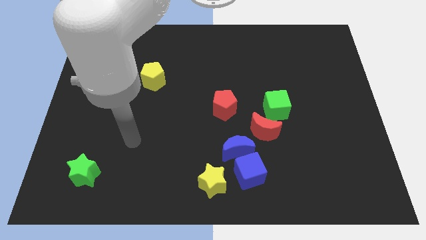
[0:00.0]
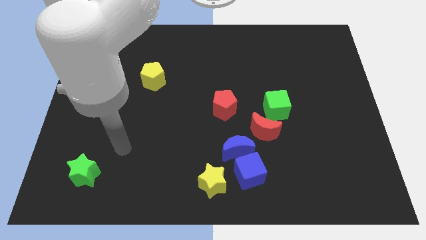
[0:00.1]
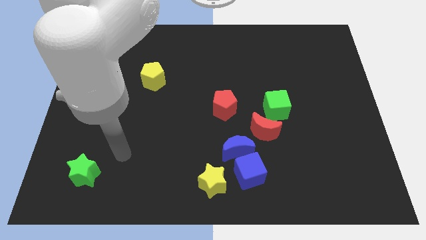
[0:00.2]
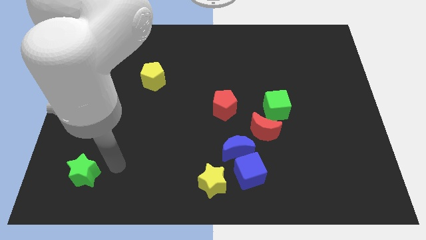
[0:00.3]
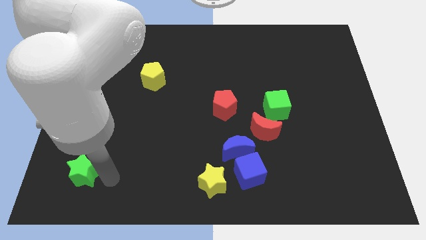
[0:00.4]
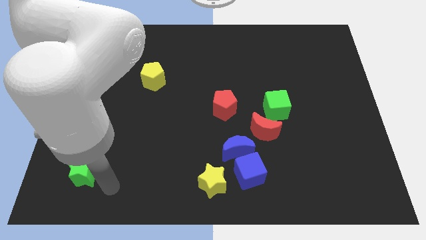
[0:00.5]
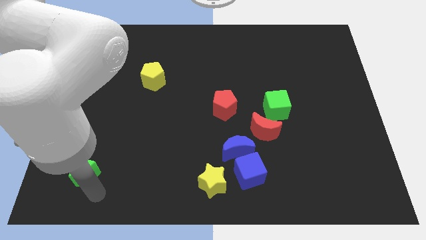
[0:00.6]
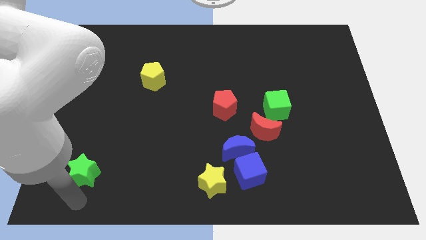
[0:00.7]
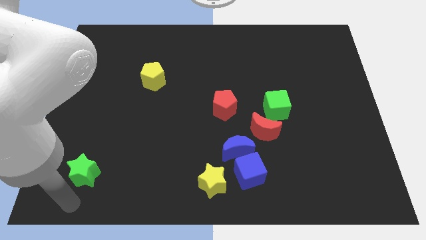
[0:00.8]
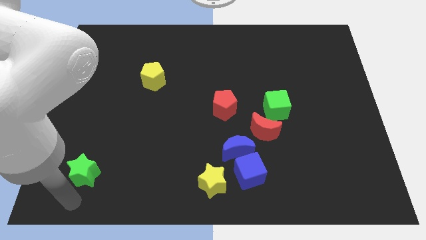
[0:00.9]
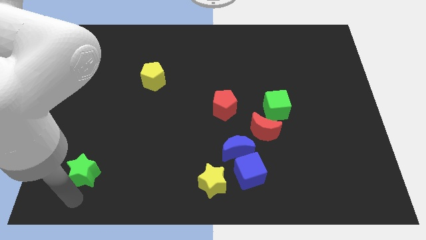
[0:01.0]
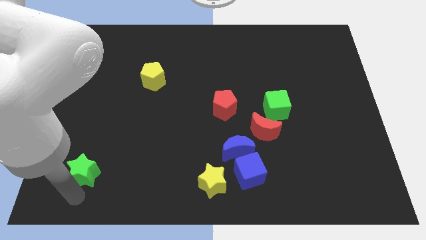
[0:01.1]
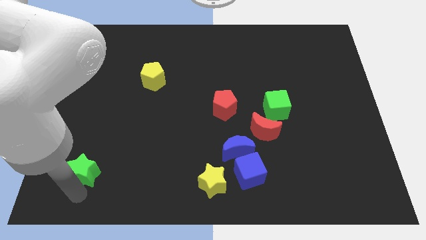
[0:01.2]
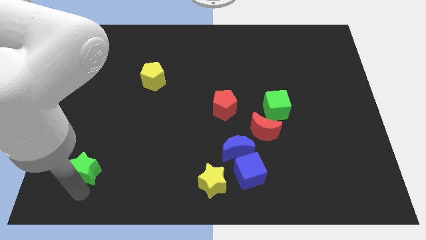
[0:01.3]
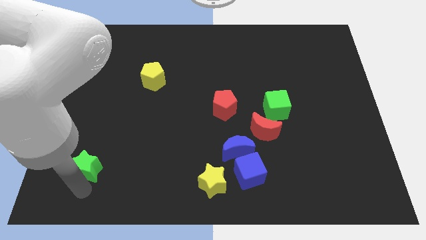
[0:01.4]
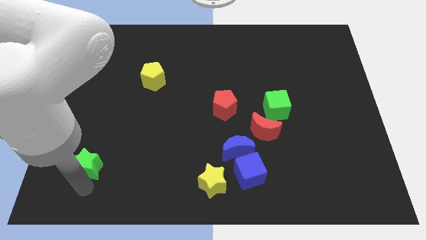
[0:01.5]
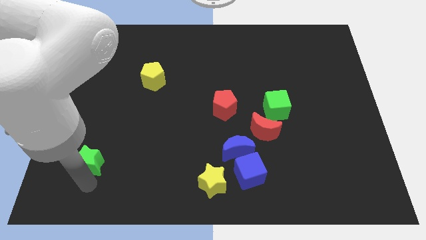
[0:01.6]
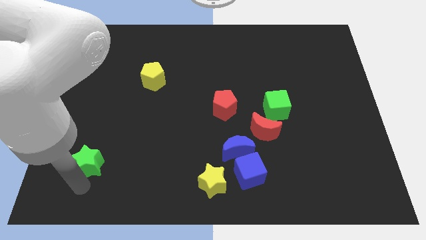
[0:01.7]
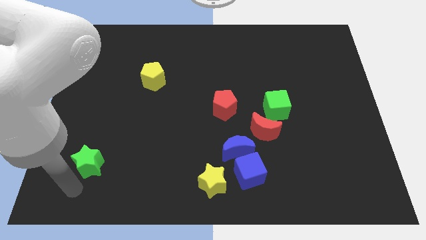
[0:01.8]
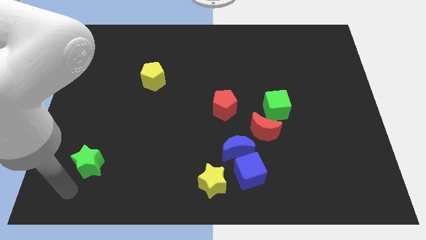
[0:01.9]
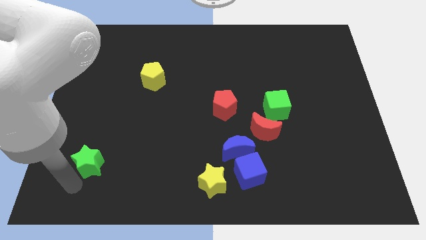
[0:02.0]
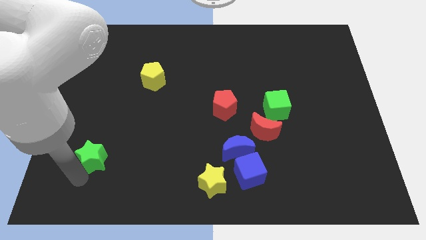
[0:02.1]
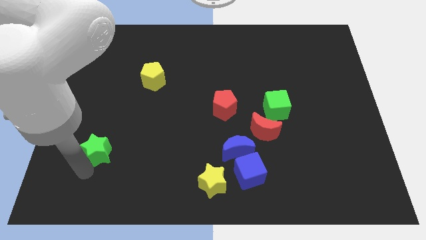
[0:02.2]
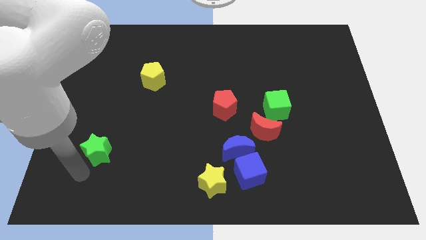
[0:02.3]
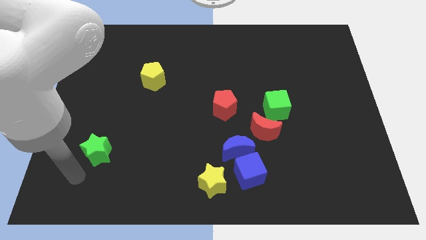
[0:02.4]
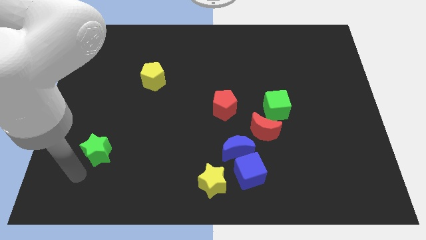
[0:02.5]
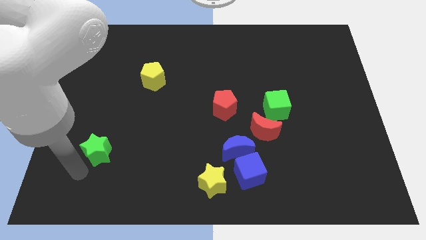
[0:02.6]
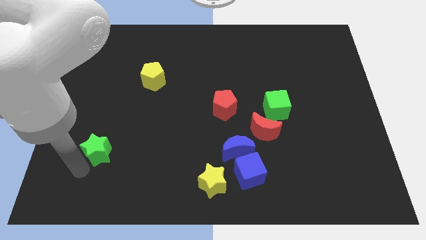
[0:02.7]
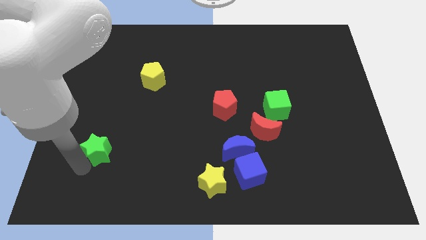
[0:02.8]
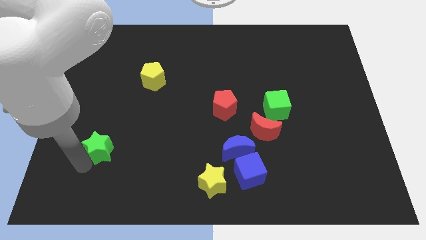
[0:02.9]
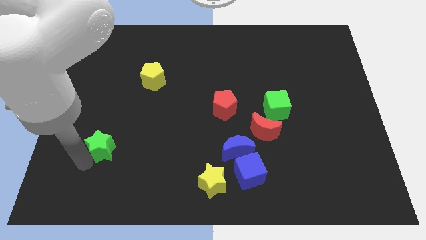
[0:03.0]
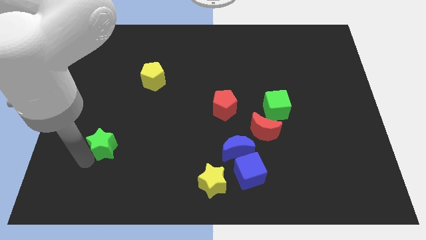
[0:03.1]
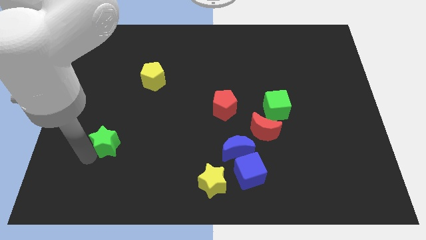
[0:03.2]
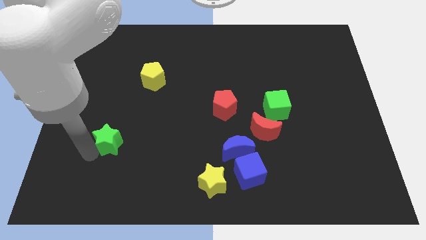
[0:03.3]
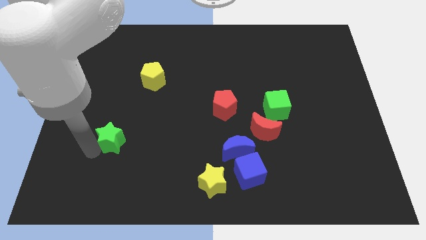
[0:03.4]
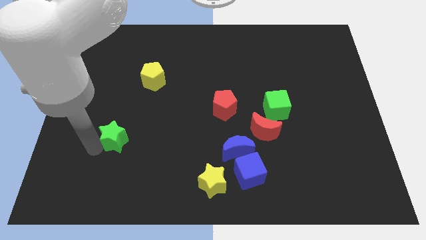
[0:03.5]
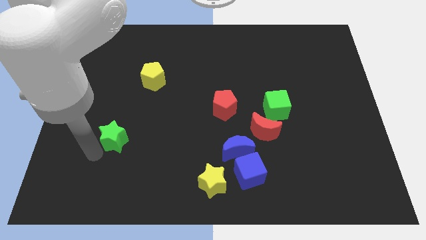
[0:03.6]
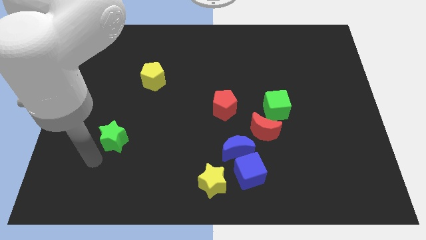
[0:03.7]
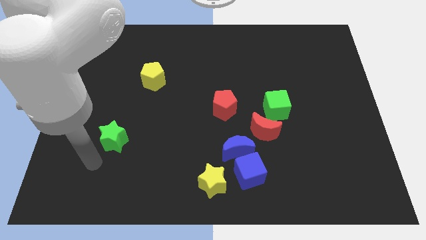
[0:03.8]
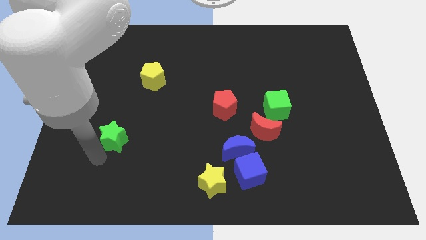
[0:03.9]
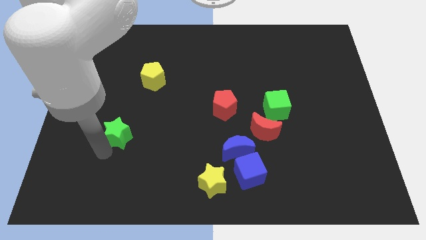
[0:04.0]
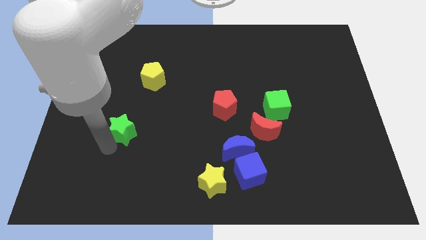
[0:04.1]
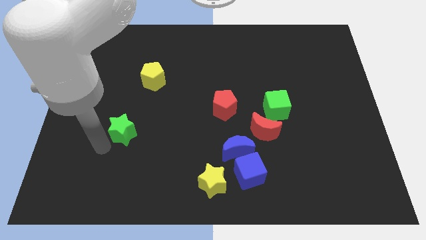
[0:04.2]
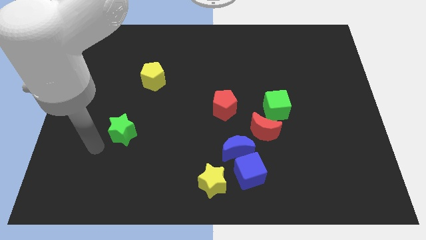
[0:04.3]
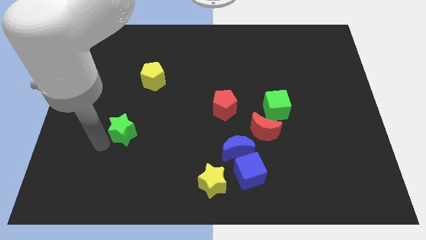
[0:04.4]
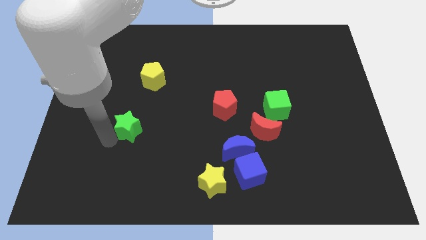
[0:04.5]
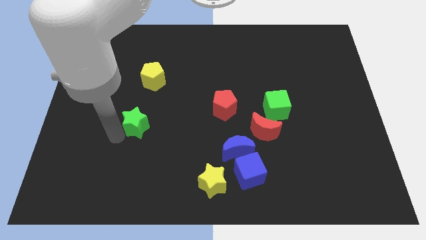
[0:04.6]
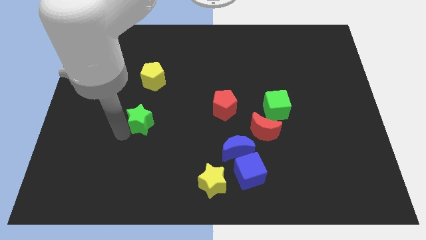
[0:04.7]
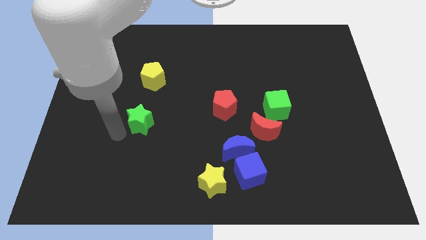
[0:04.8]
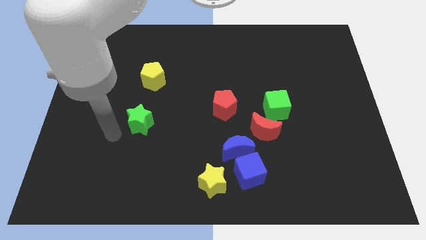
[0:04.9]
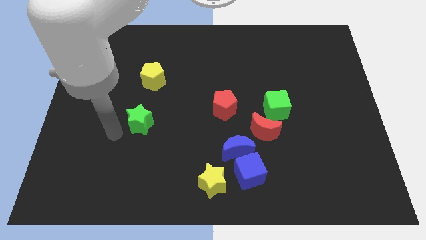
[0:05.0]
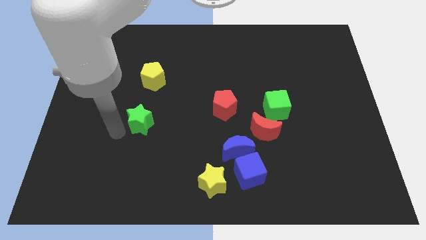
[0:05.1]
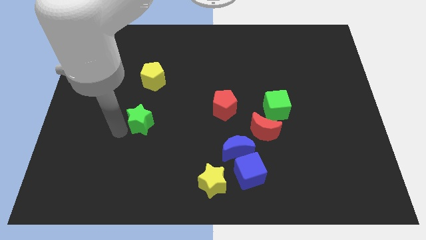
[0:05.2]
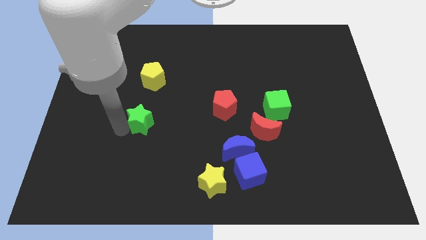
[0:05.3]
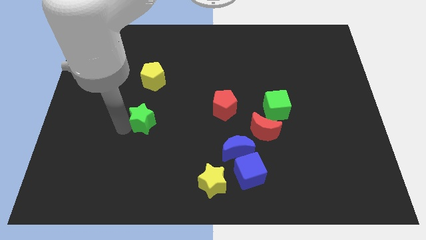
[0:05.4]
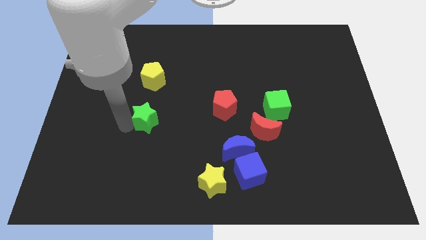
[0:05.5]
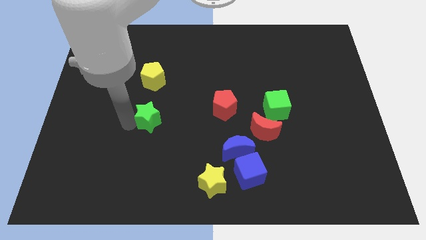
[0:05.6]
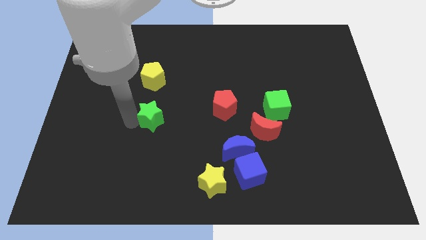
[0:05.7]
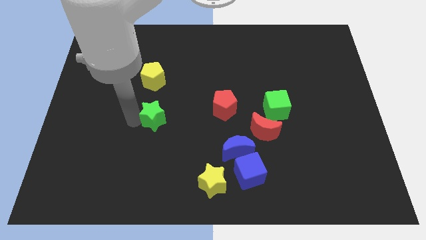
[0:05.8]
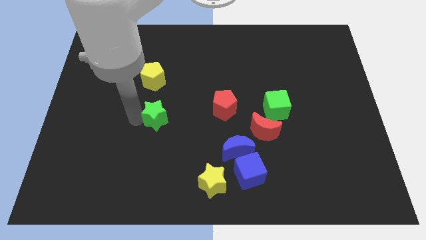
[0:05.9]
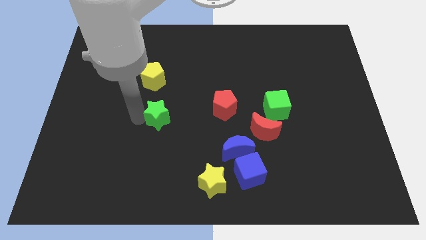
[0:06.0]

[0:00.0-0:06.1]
move the green star upwards and right

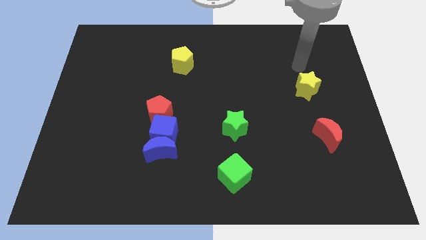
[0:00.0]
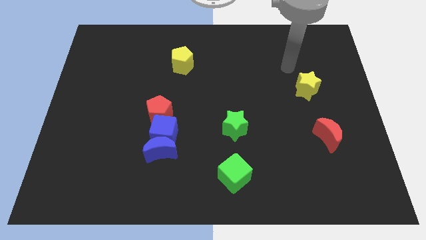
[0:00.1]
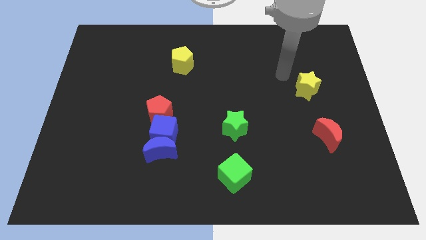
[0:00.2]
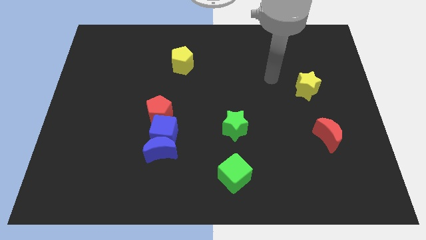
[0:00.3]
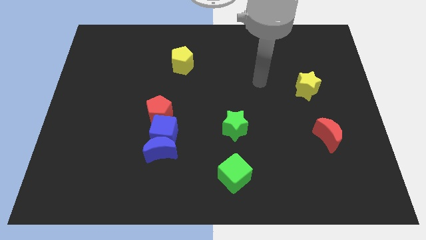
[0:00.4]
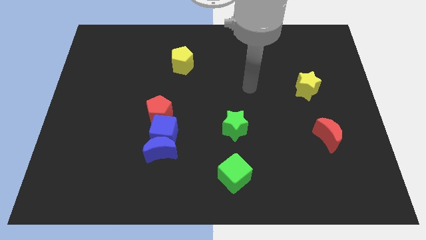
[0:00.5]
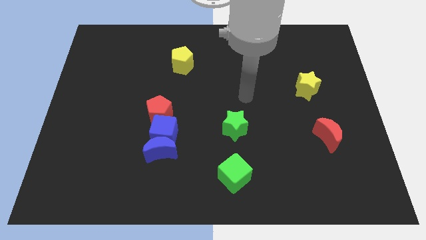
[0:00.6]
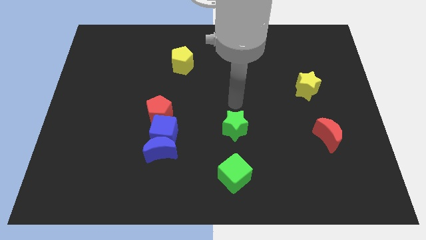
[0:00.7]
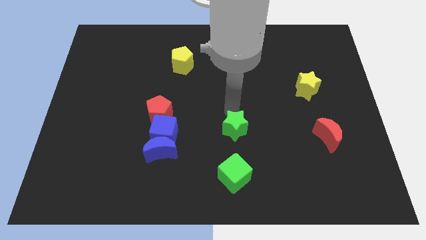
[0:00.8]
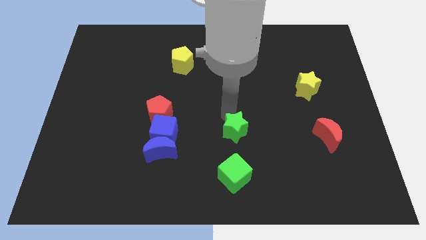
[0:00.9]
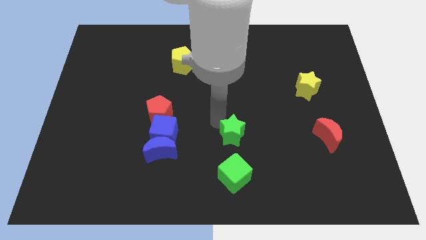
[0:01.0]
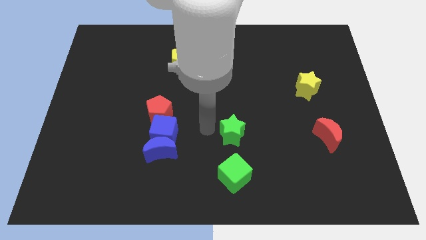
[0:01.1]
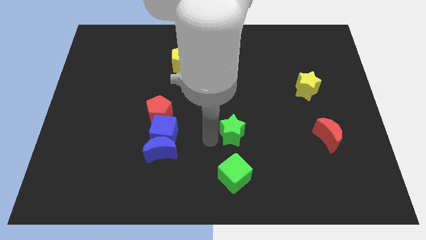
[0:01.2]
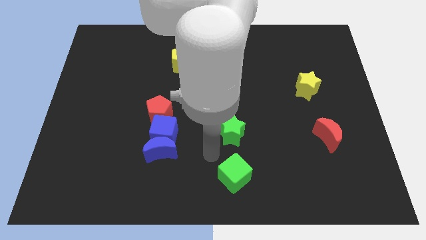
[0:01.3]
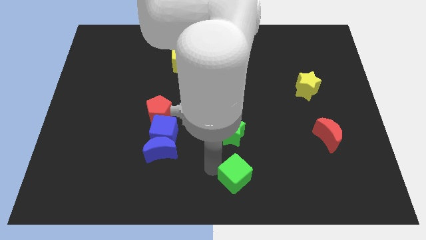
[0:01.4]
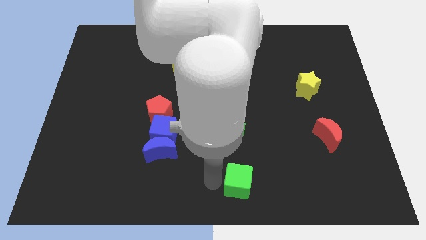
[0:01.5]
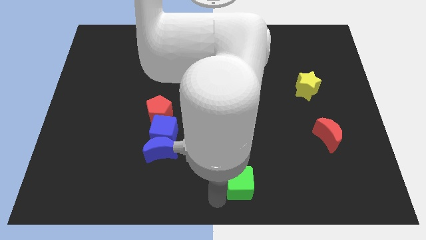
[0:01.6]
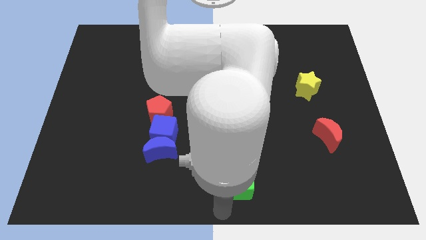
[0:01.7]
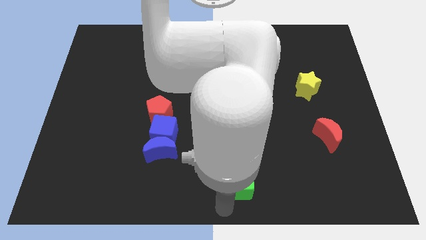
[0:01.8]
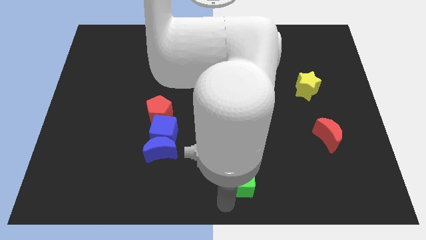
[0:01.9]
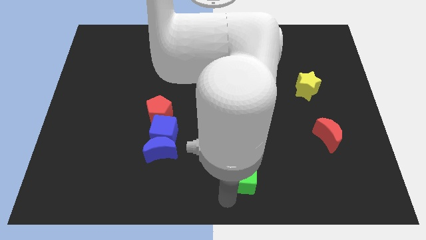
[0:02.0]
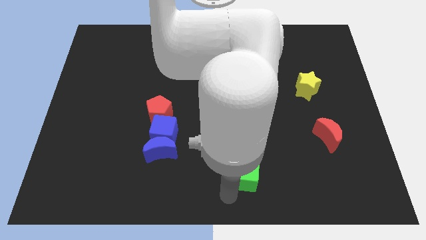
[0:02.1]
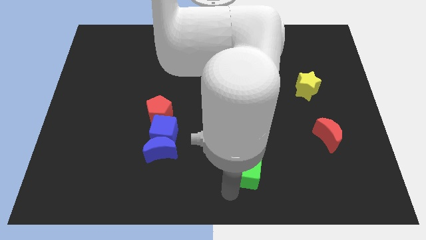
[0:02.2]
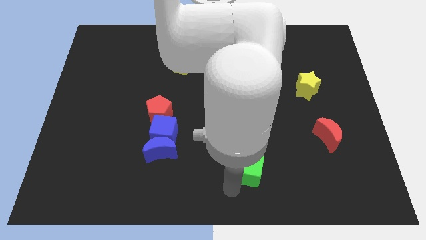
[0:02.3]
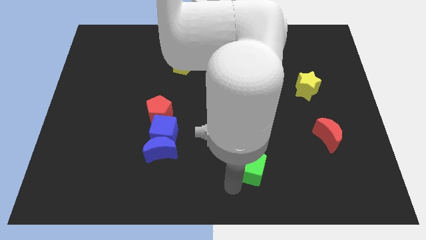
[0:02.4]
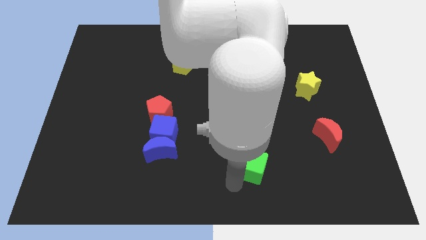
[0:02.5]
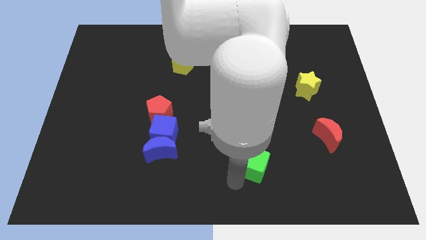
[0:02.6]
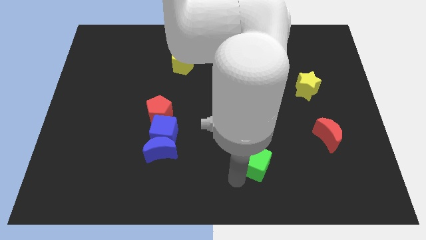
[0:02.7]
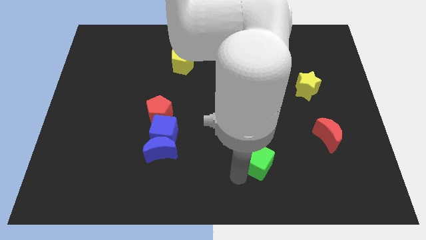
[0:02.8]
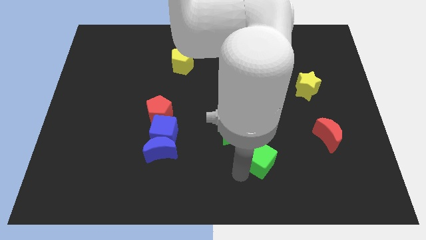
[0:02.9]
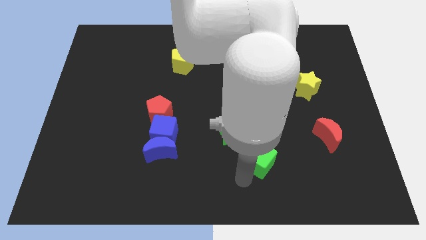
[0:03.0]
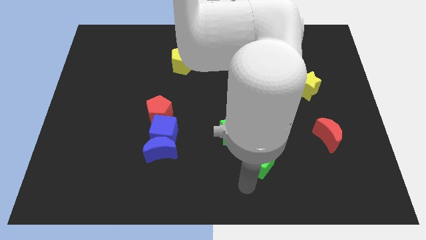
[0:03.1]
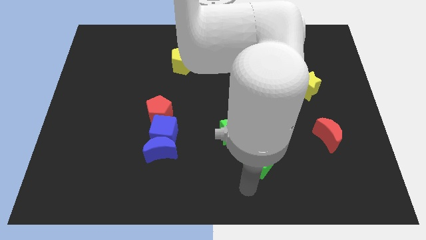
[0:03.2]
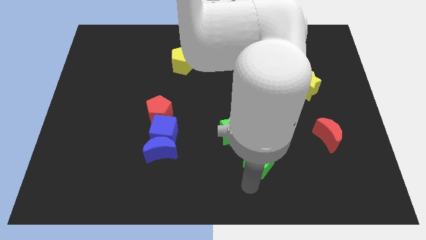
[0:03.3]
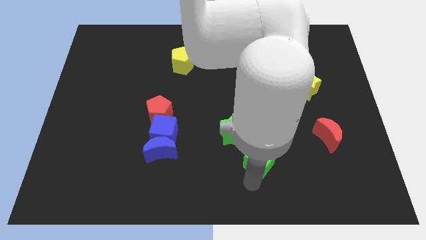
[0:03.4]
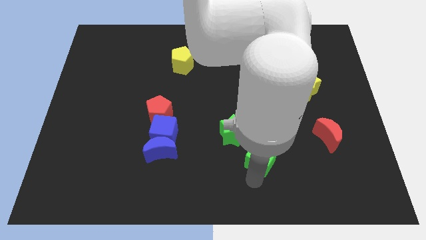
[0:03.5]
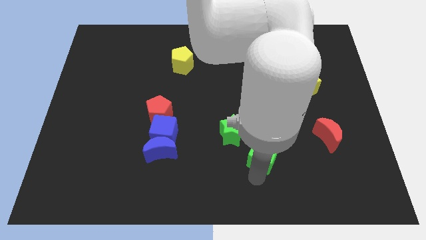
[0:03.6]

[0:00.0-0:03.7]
slightly slide the green cube diagonally up and right
